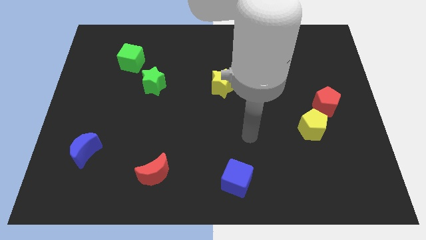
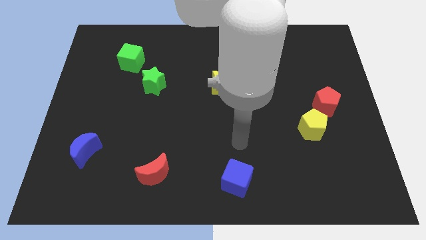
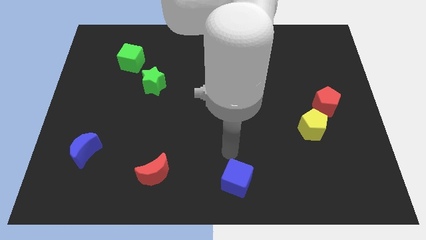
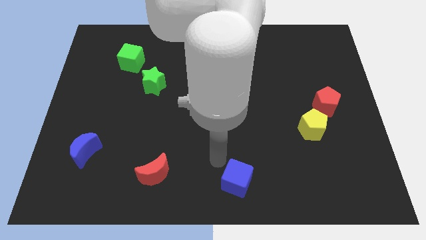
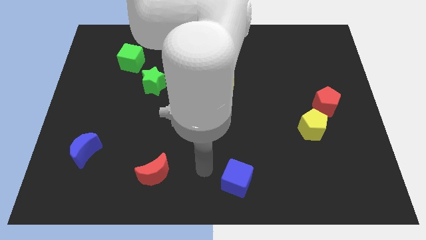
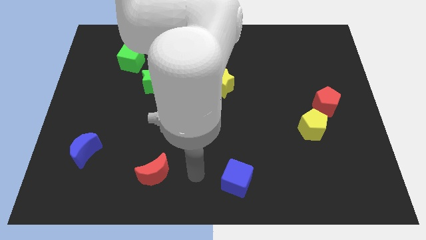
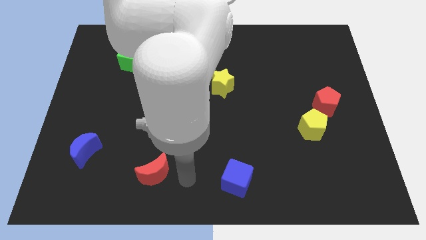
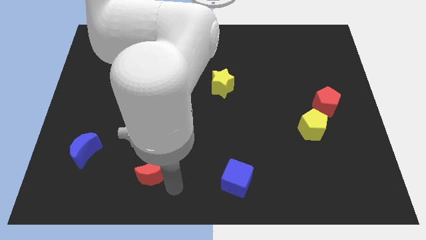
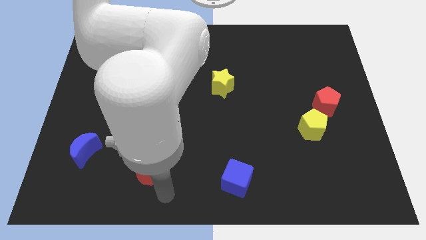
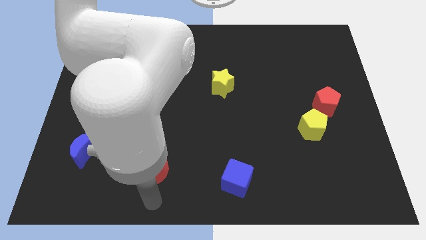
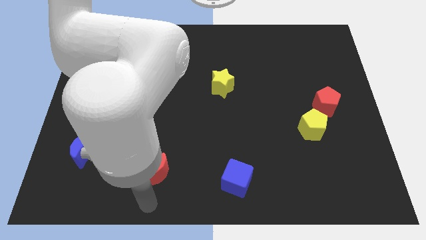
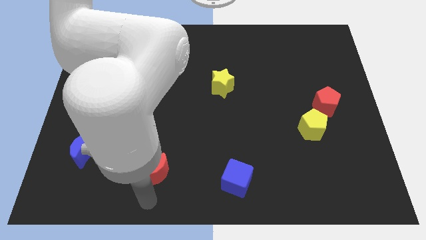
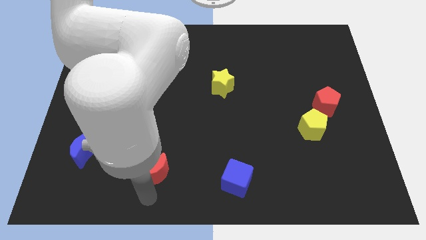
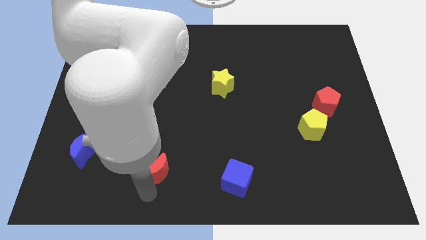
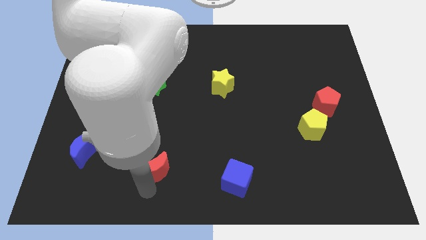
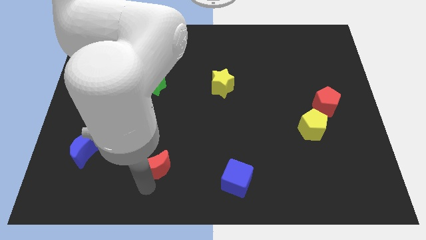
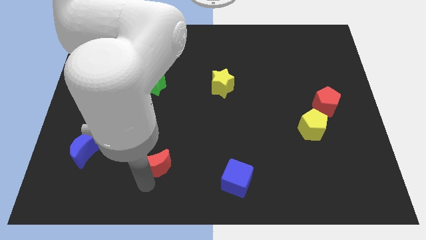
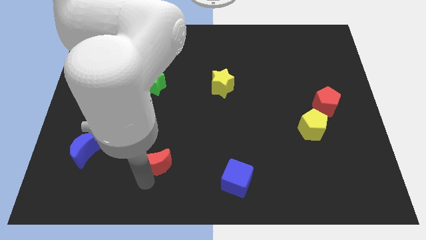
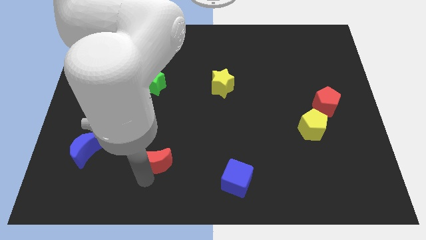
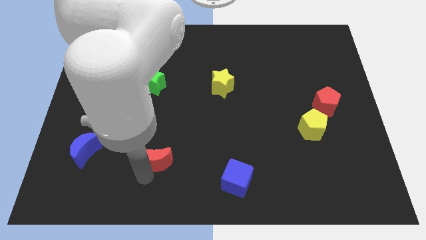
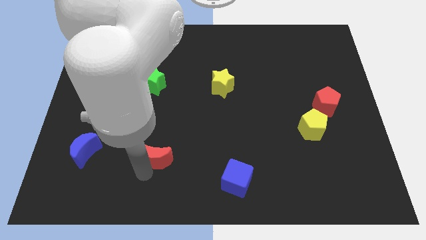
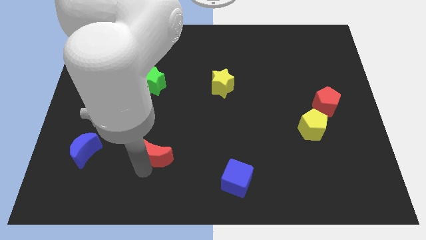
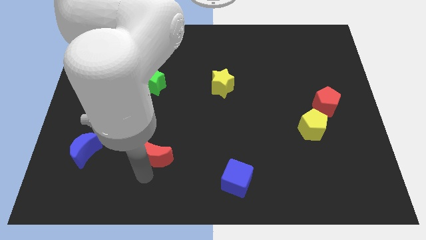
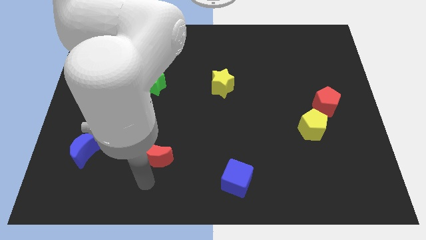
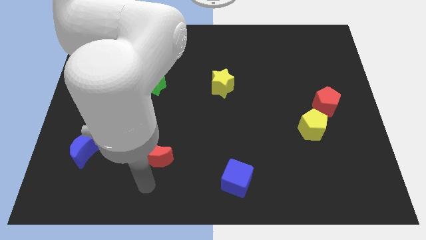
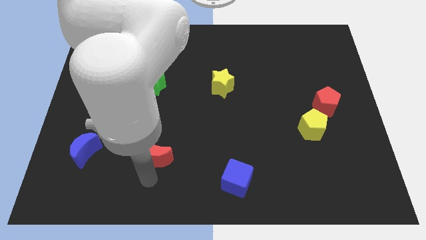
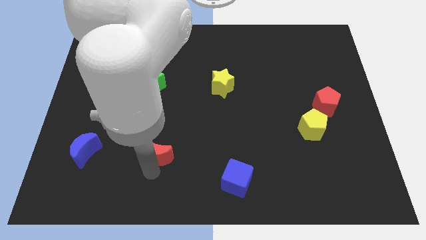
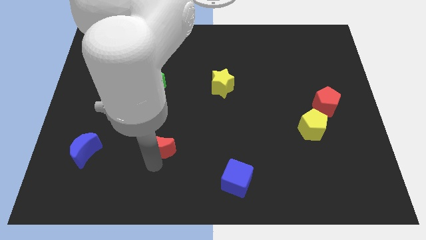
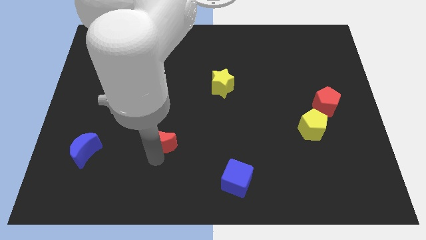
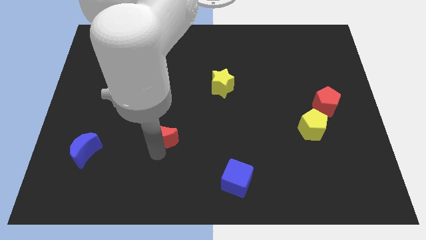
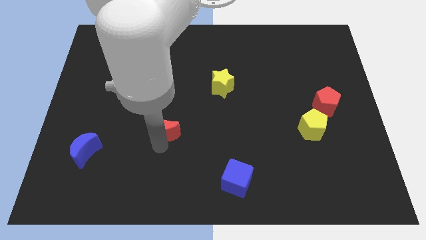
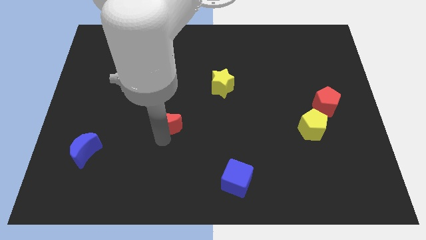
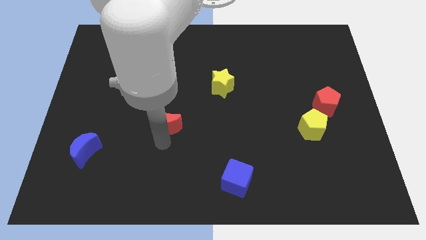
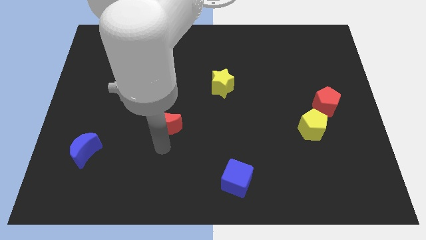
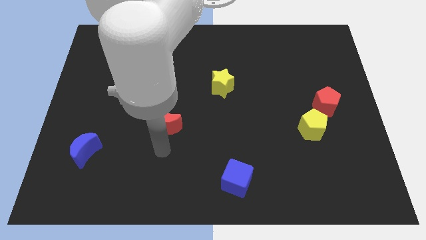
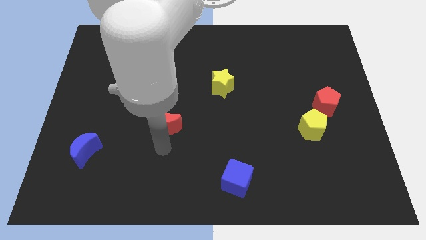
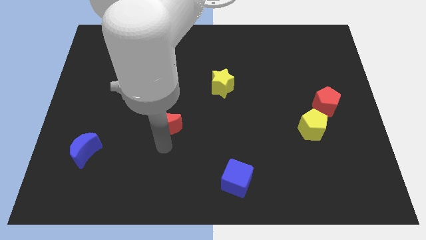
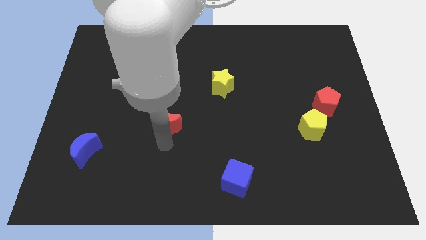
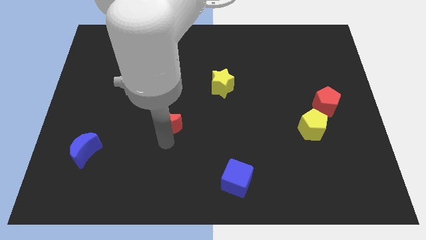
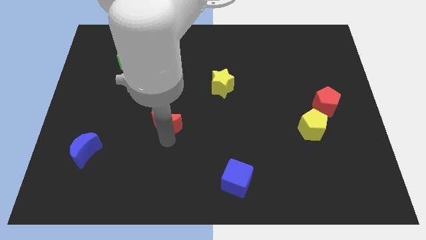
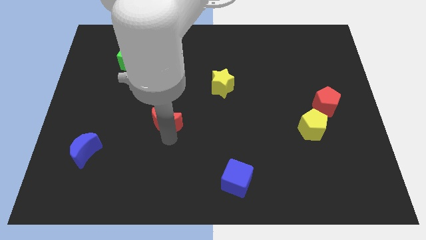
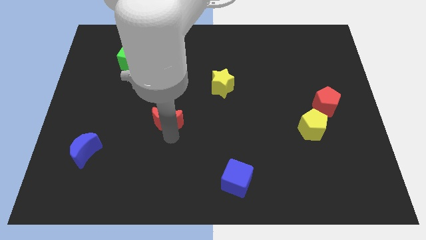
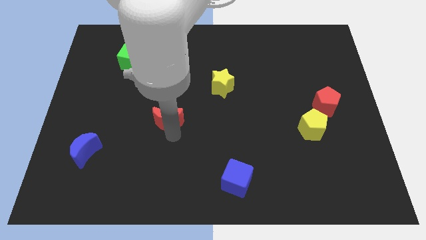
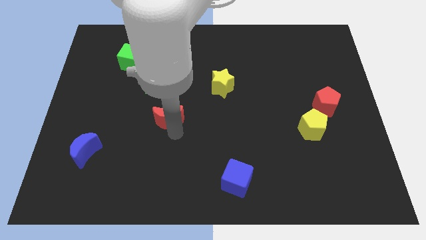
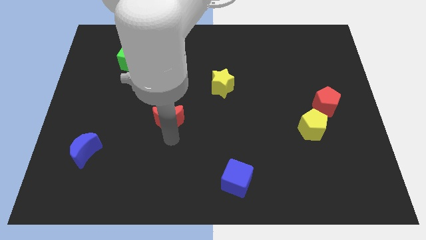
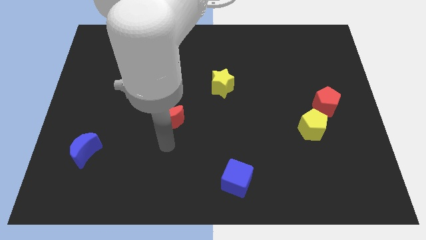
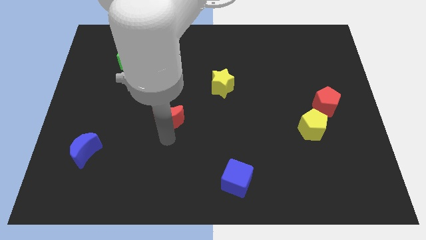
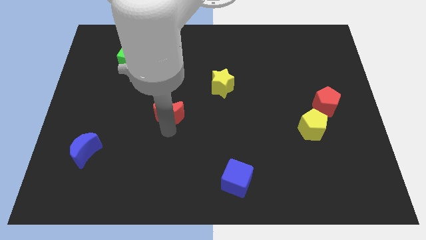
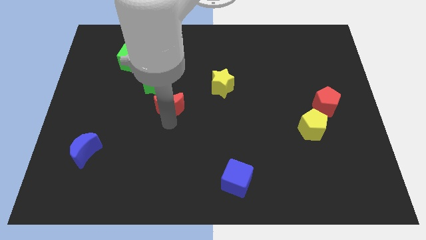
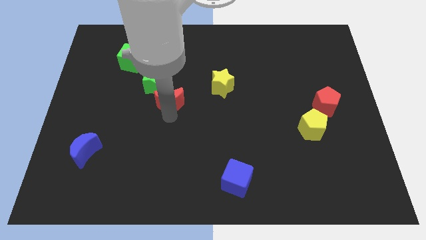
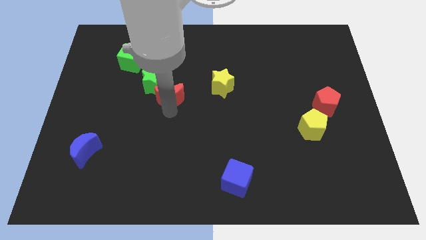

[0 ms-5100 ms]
move the red moon up

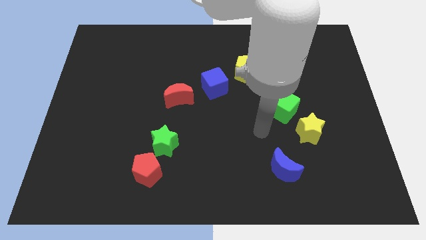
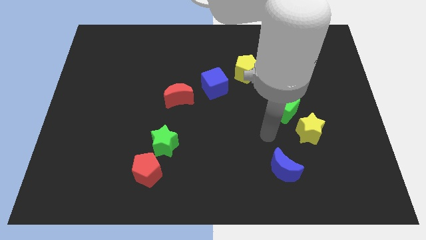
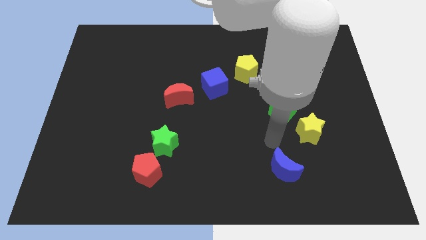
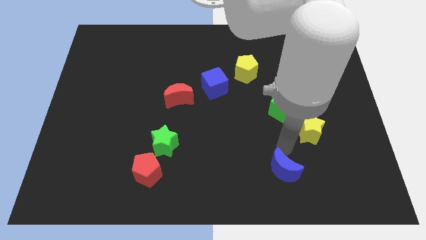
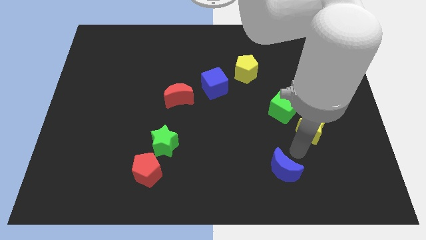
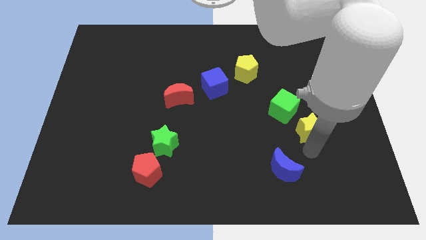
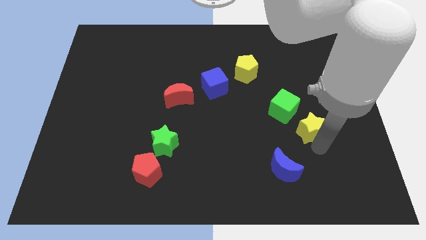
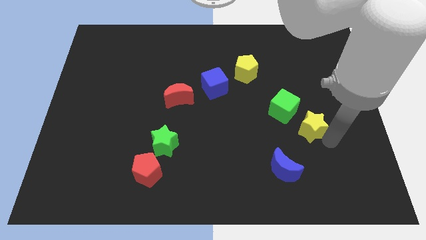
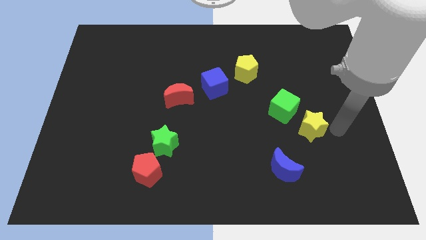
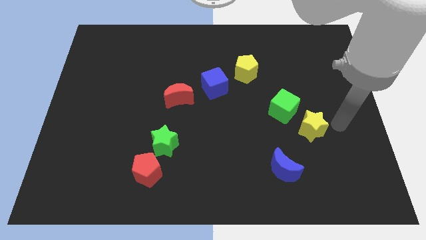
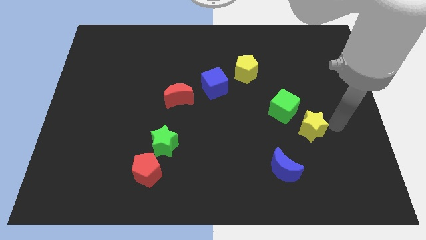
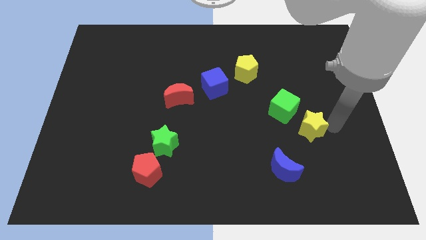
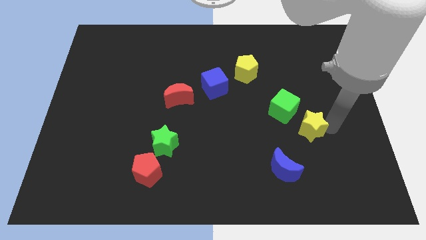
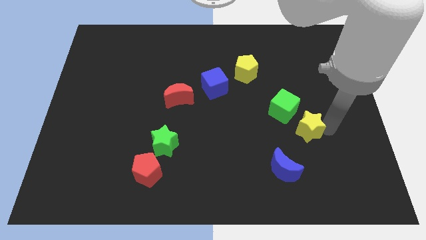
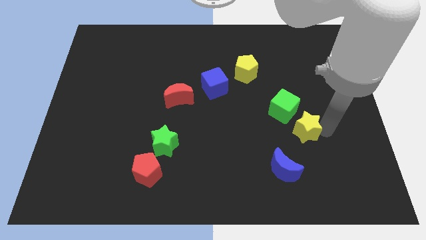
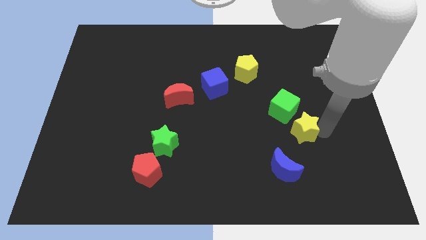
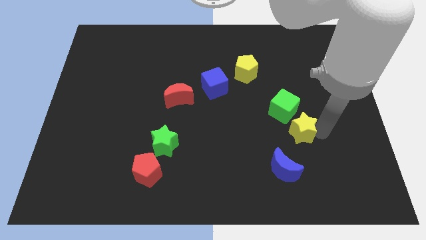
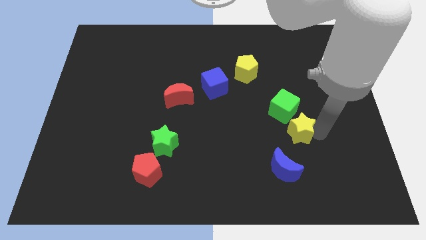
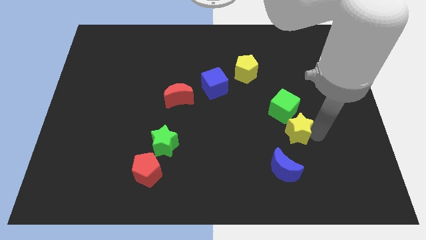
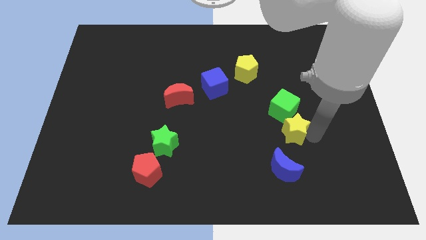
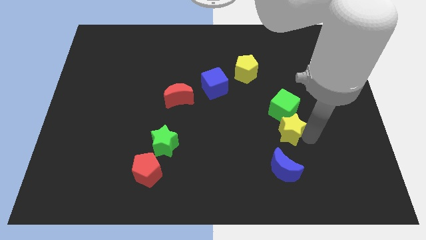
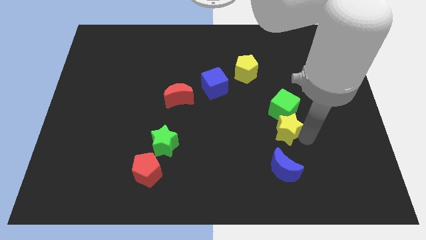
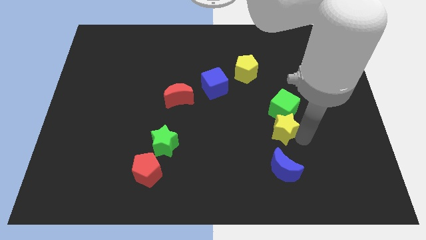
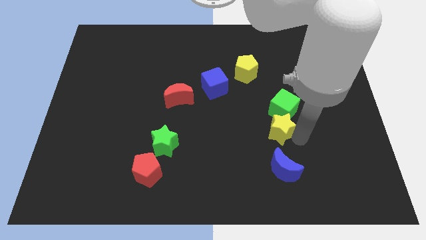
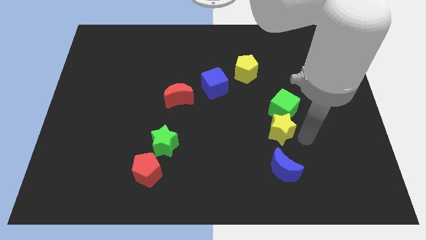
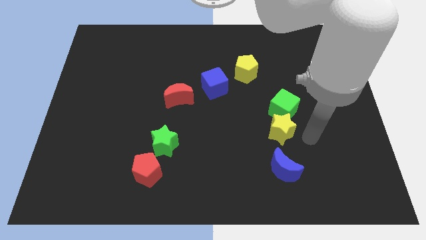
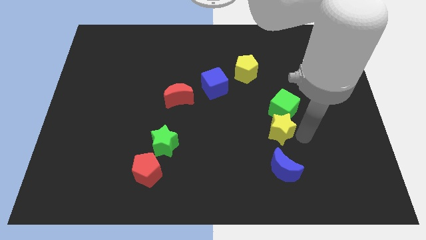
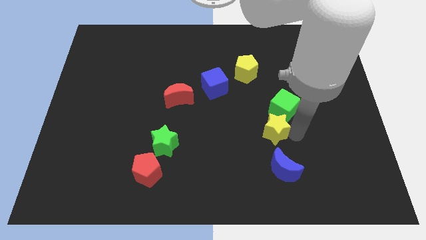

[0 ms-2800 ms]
move the yellow star to the left a little

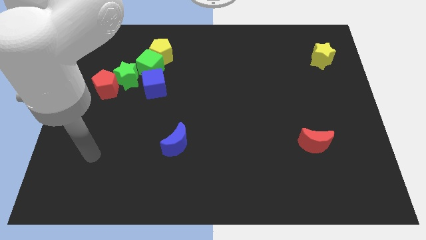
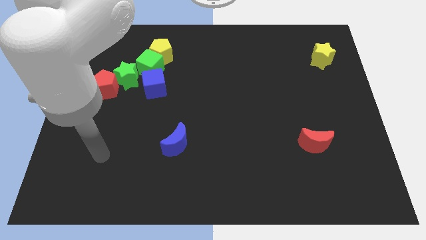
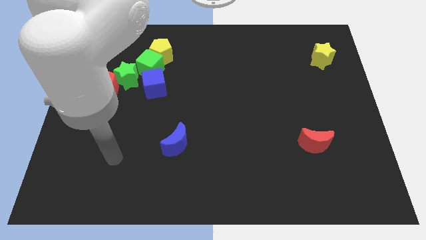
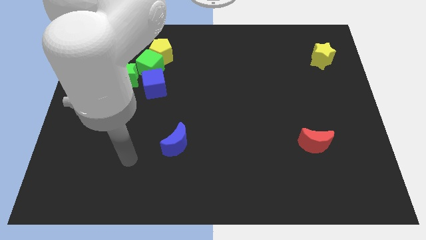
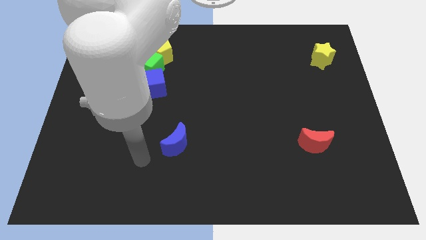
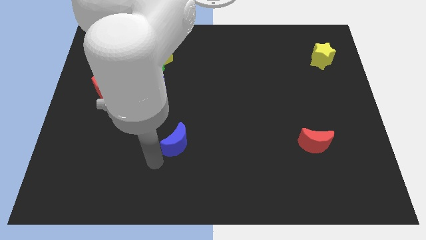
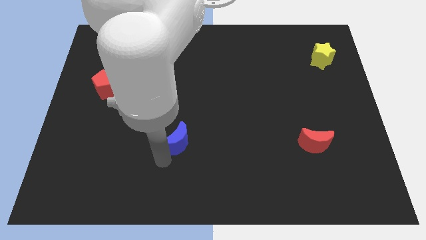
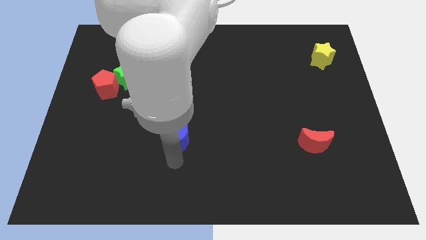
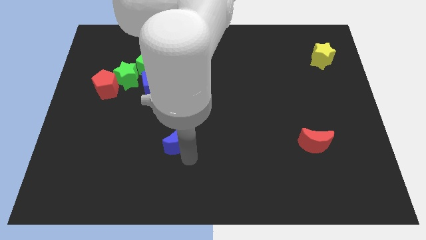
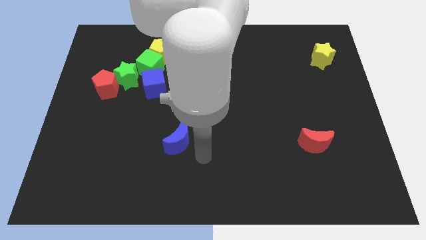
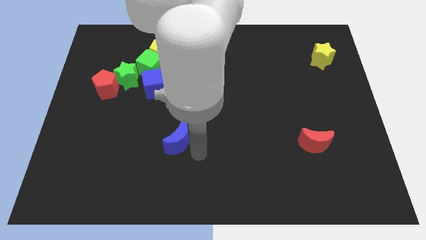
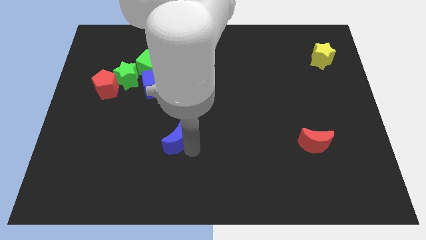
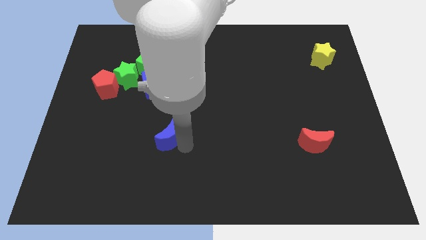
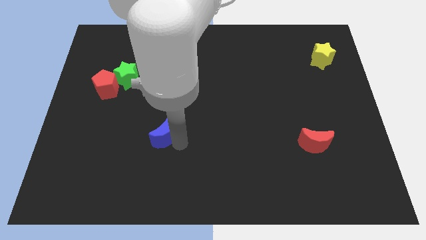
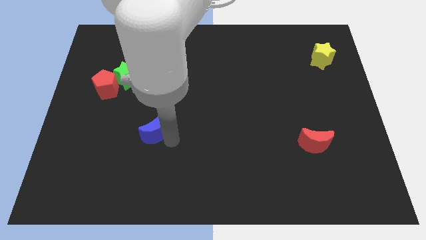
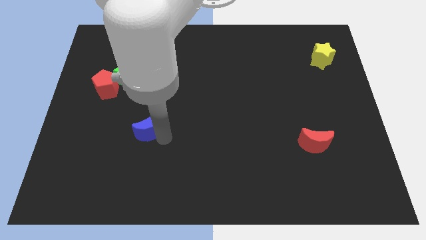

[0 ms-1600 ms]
slide the blue moon a bit up and left
